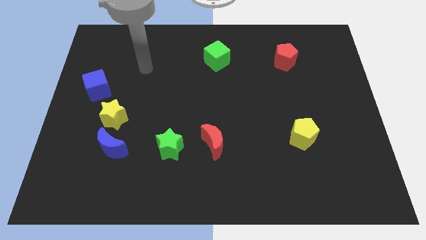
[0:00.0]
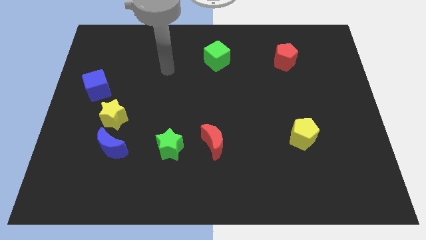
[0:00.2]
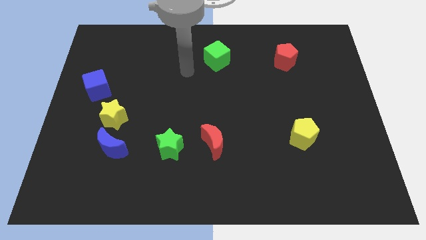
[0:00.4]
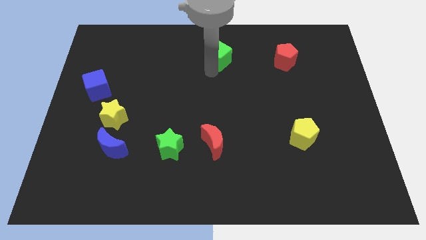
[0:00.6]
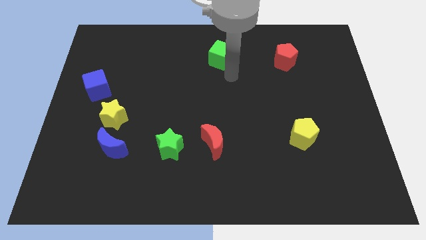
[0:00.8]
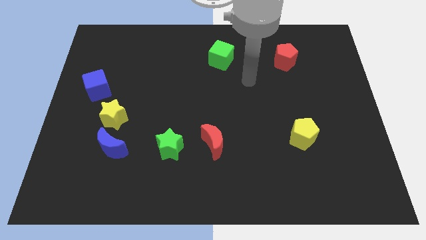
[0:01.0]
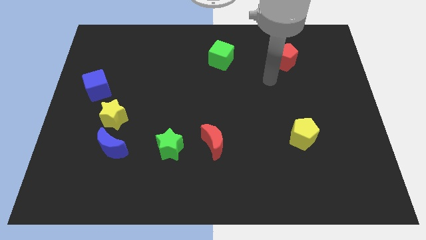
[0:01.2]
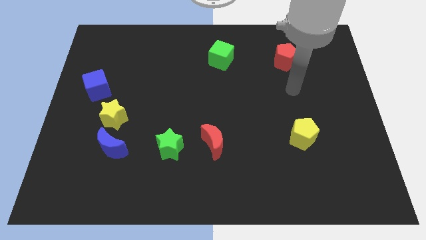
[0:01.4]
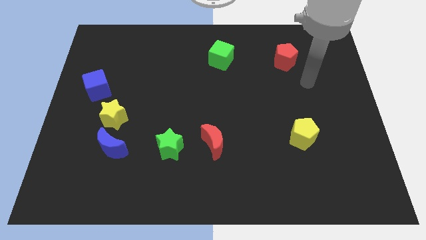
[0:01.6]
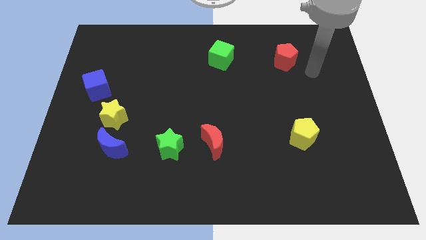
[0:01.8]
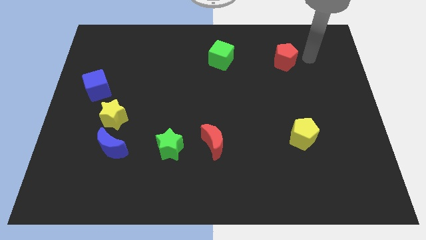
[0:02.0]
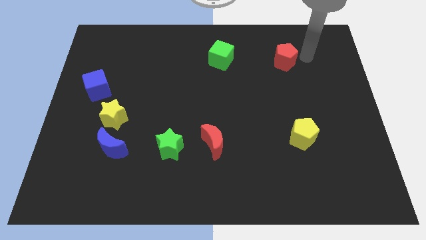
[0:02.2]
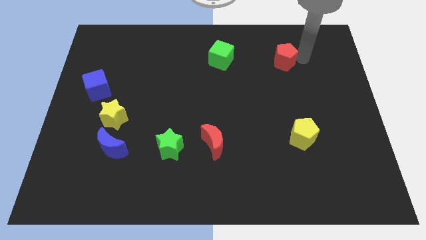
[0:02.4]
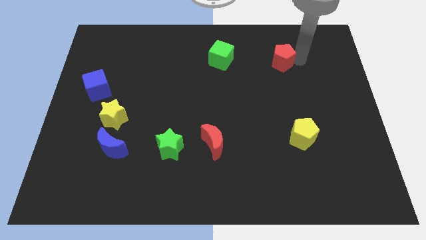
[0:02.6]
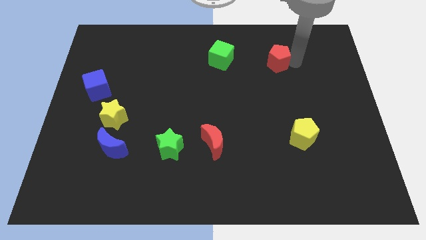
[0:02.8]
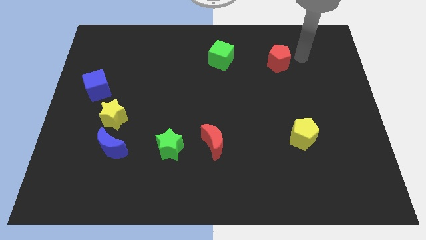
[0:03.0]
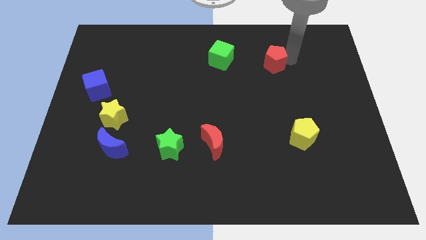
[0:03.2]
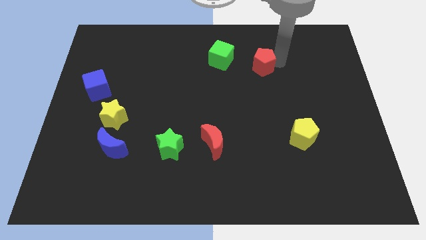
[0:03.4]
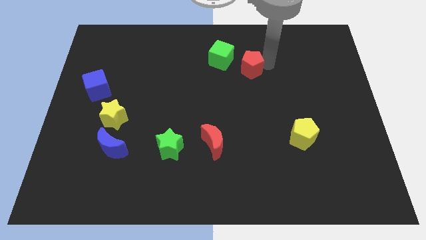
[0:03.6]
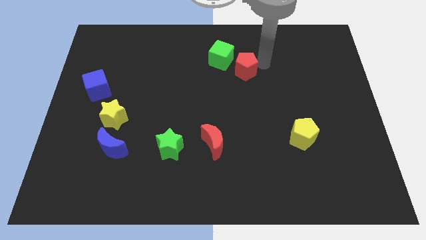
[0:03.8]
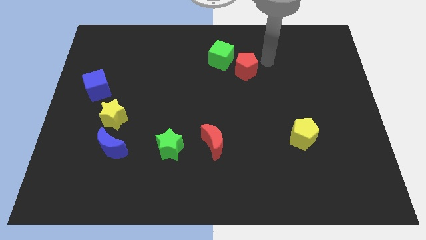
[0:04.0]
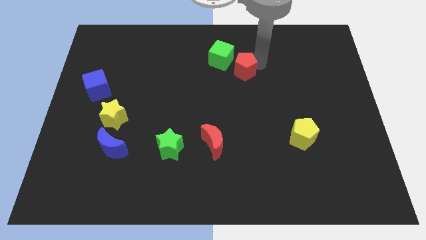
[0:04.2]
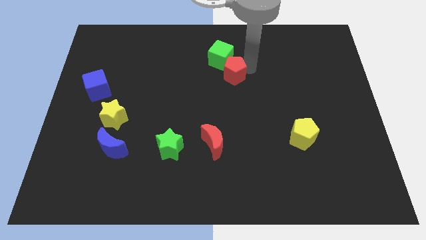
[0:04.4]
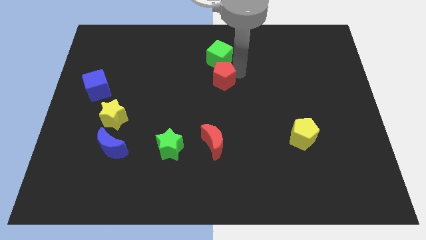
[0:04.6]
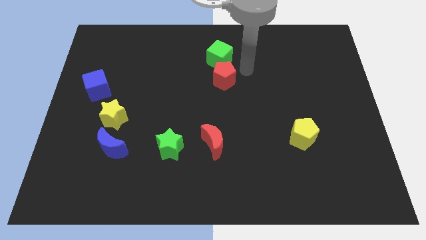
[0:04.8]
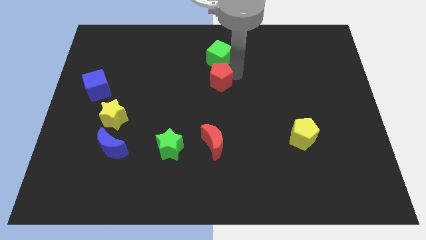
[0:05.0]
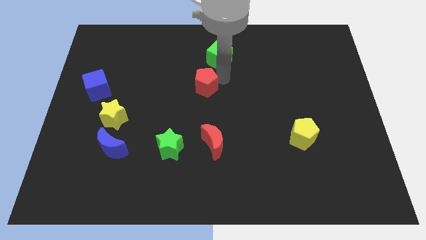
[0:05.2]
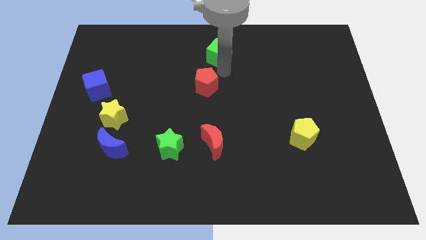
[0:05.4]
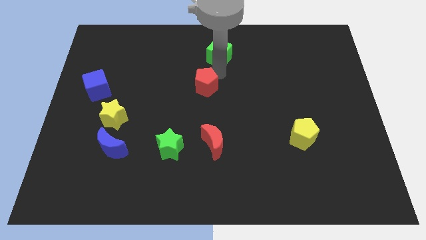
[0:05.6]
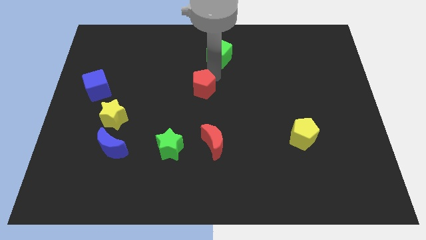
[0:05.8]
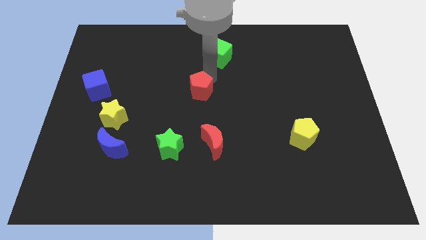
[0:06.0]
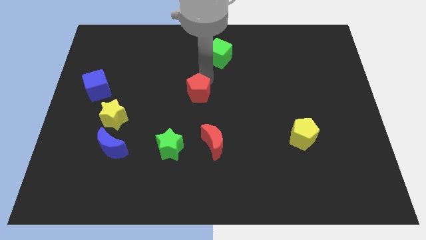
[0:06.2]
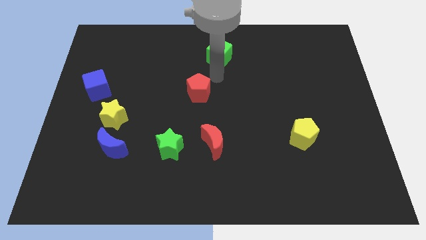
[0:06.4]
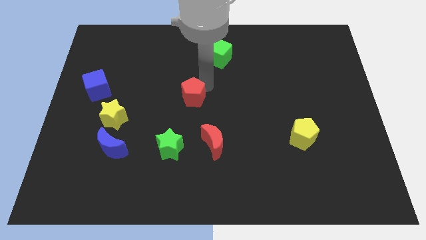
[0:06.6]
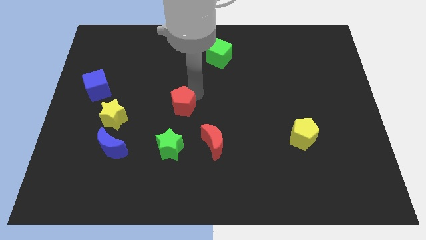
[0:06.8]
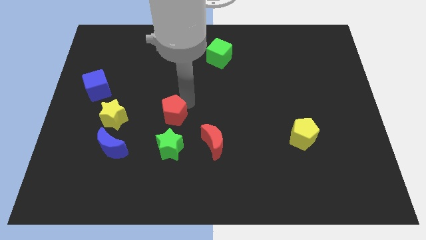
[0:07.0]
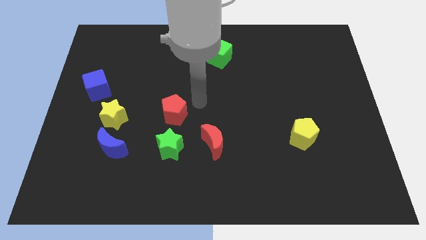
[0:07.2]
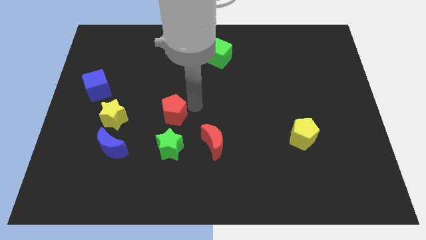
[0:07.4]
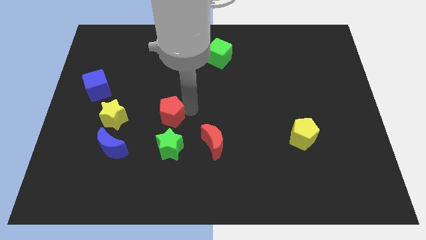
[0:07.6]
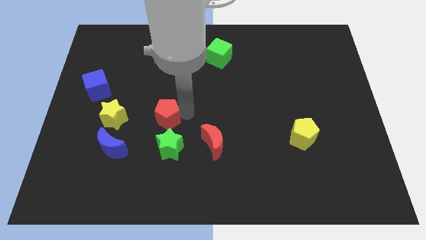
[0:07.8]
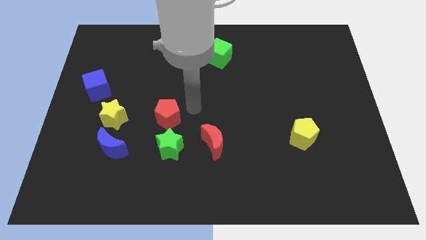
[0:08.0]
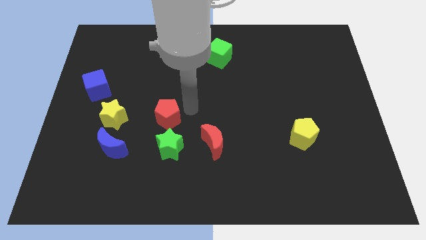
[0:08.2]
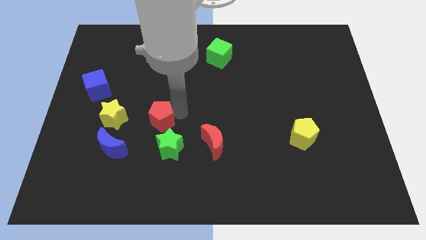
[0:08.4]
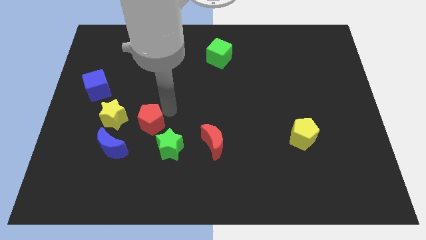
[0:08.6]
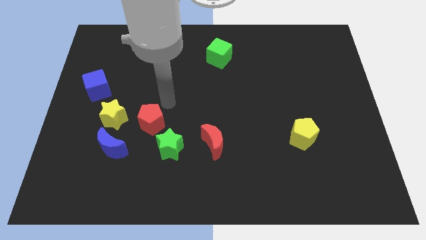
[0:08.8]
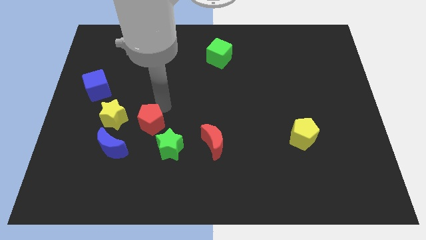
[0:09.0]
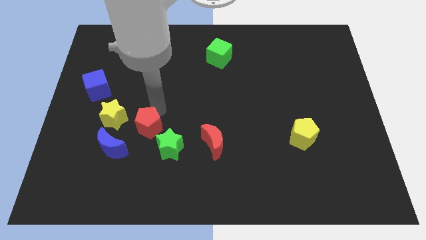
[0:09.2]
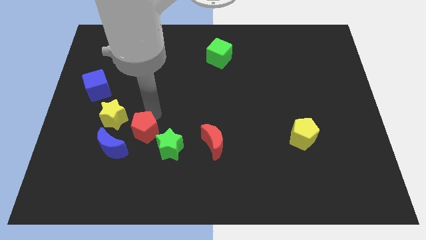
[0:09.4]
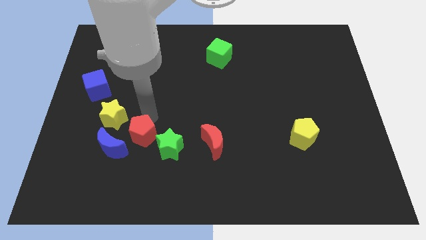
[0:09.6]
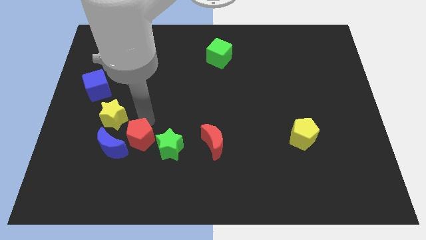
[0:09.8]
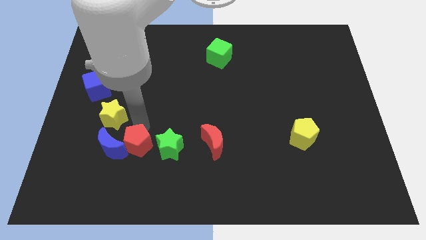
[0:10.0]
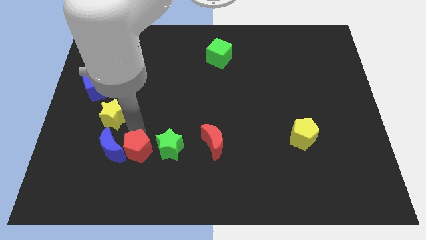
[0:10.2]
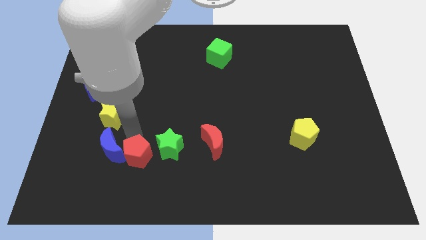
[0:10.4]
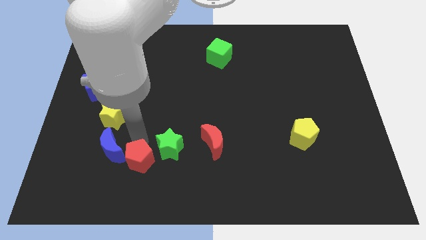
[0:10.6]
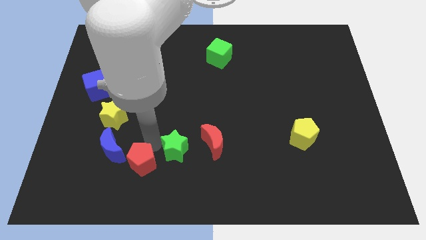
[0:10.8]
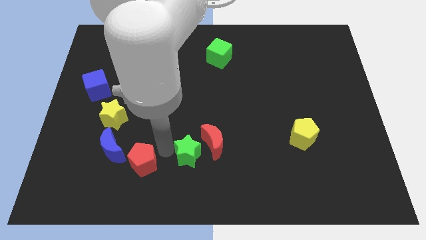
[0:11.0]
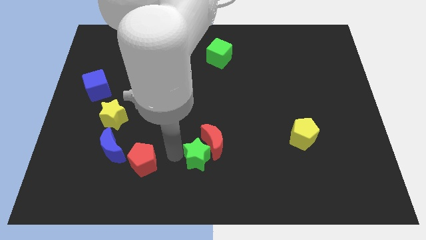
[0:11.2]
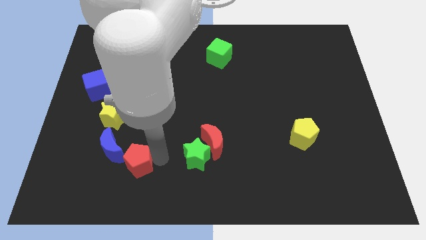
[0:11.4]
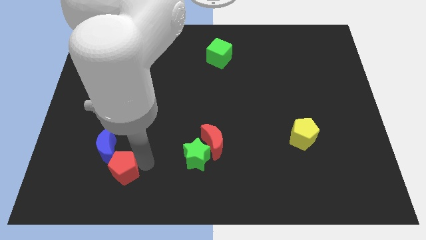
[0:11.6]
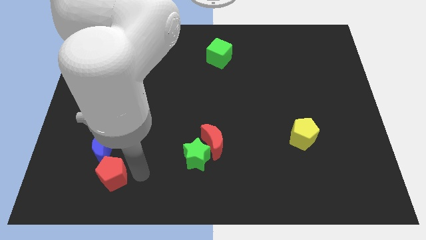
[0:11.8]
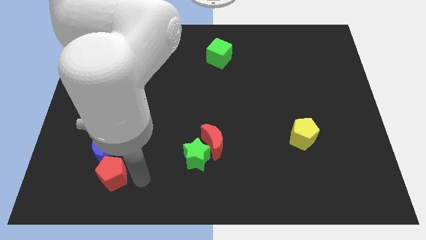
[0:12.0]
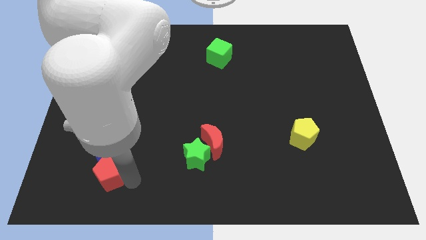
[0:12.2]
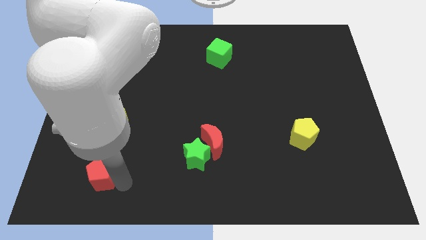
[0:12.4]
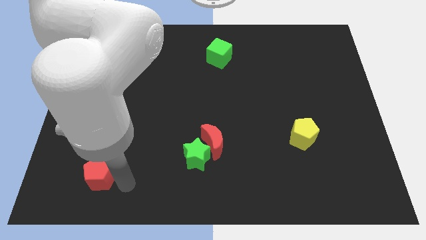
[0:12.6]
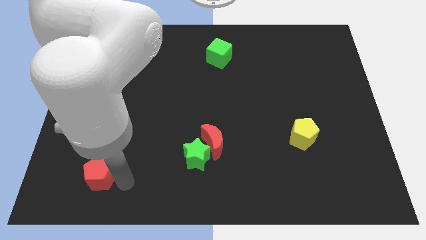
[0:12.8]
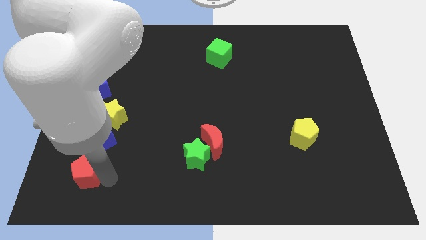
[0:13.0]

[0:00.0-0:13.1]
push the red pentagon to the bottom left of the blue moon

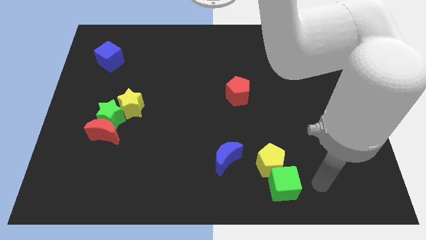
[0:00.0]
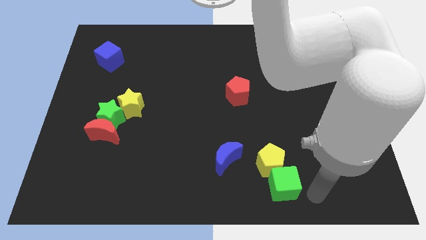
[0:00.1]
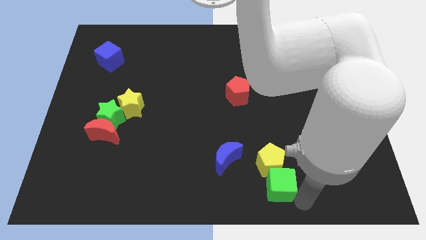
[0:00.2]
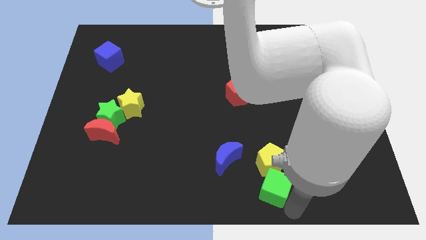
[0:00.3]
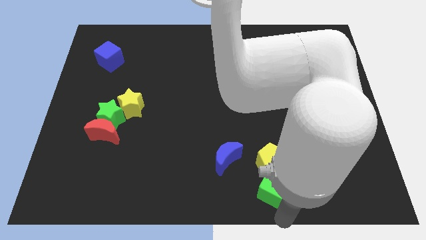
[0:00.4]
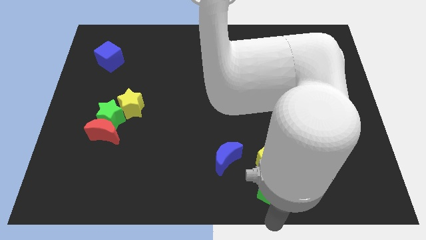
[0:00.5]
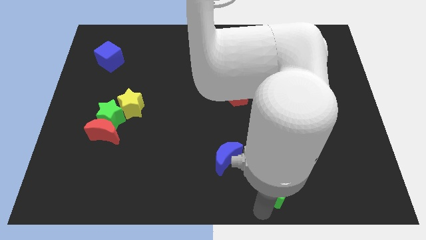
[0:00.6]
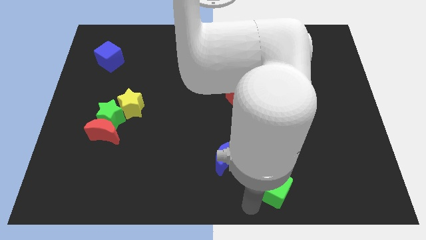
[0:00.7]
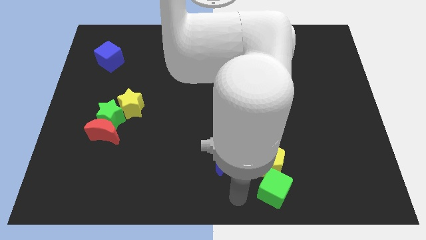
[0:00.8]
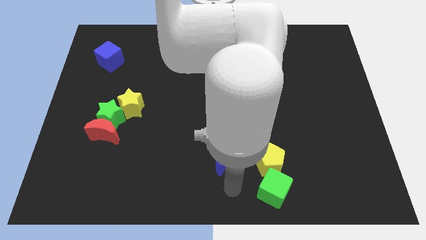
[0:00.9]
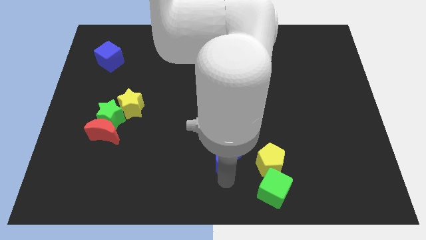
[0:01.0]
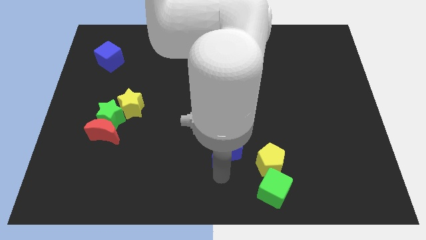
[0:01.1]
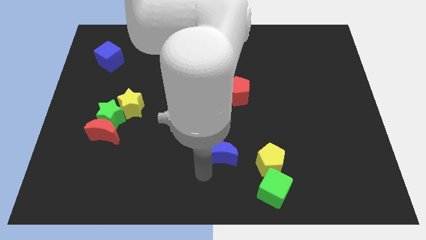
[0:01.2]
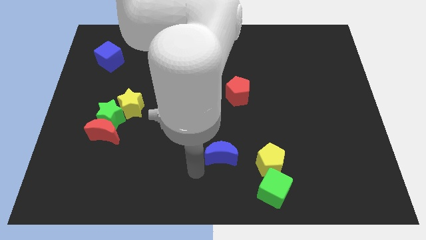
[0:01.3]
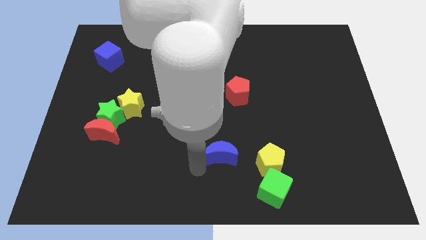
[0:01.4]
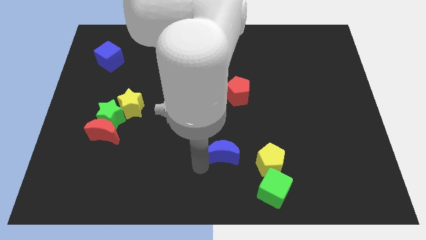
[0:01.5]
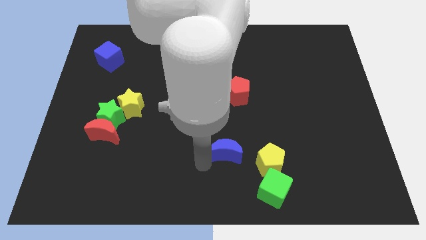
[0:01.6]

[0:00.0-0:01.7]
put the blue moon to the top left side of the yellow pentagon
